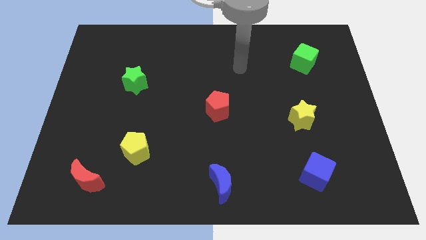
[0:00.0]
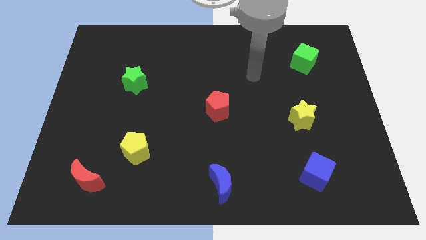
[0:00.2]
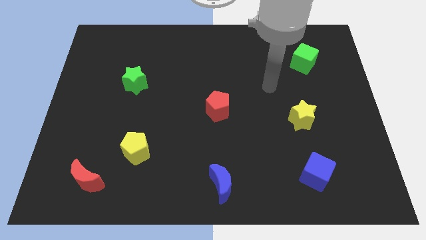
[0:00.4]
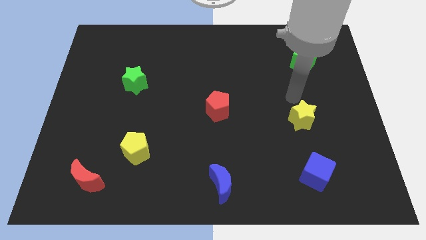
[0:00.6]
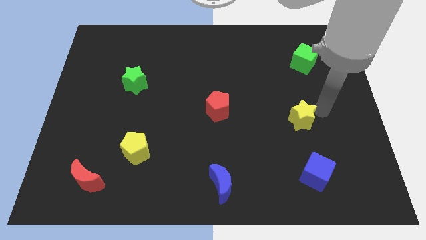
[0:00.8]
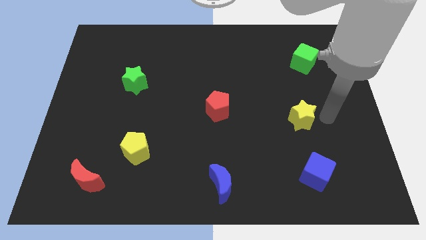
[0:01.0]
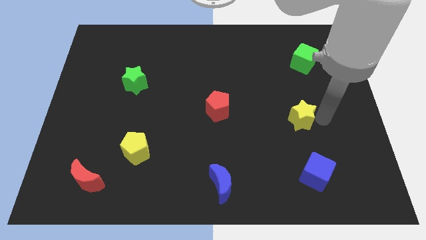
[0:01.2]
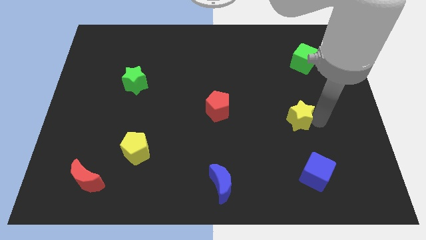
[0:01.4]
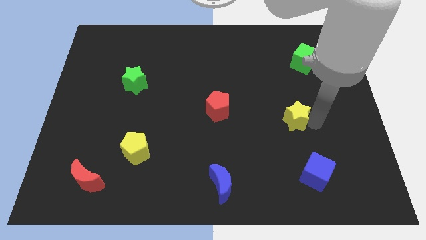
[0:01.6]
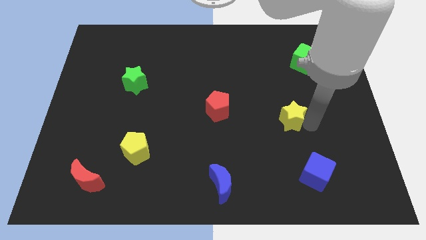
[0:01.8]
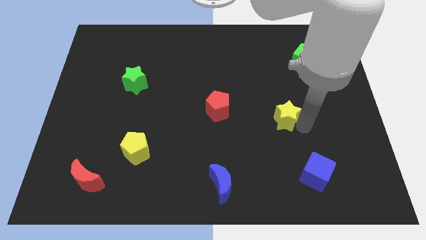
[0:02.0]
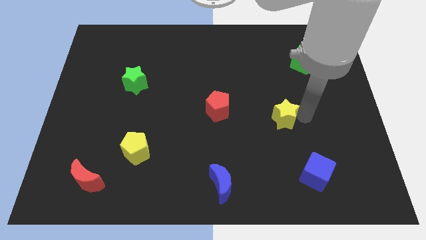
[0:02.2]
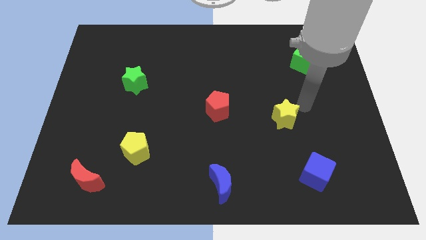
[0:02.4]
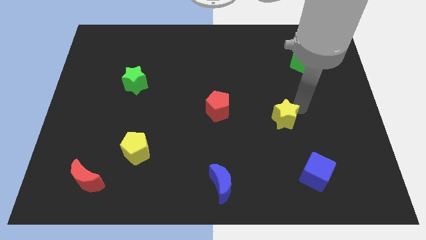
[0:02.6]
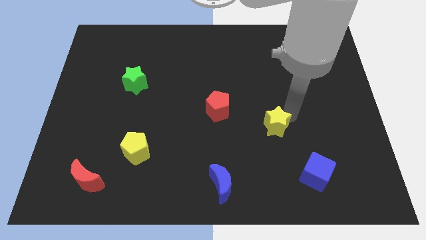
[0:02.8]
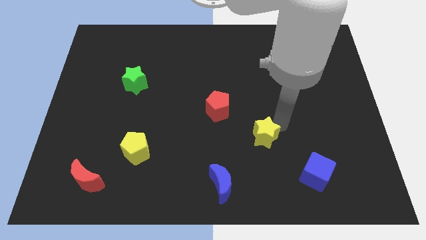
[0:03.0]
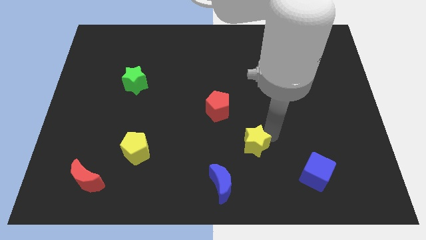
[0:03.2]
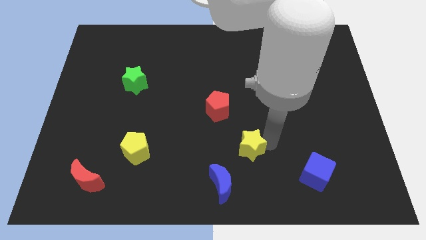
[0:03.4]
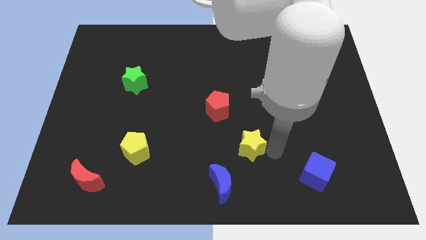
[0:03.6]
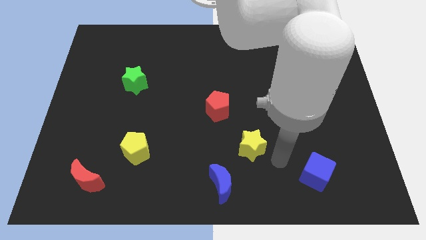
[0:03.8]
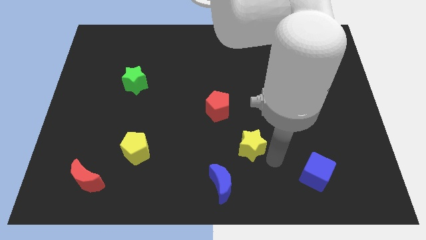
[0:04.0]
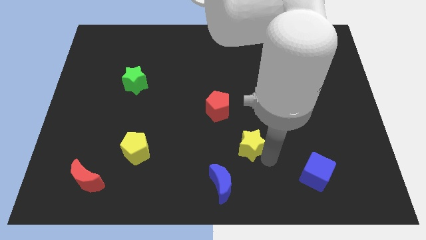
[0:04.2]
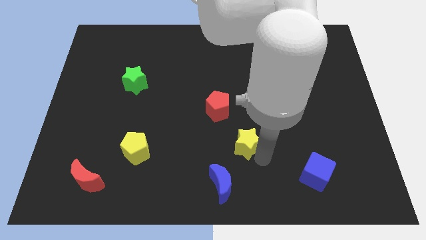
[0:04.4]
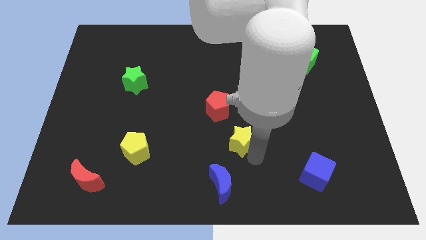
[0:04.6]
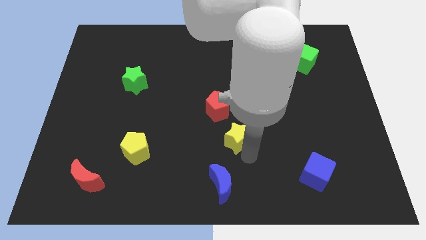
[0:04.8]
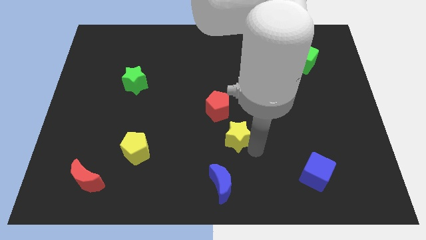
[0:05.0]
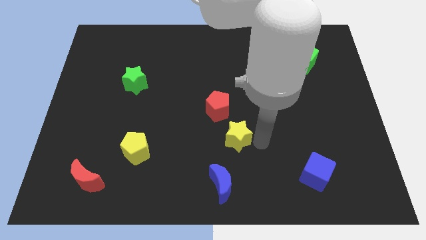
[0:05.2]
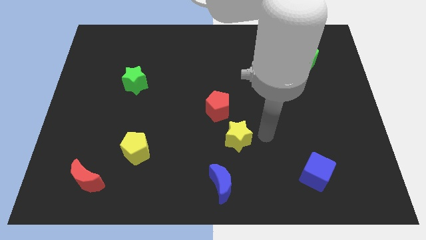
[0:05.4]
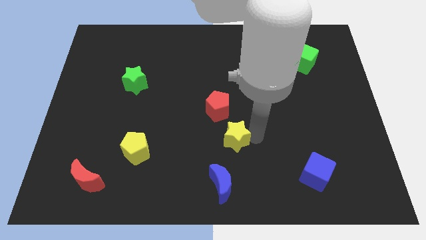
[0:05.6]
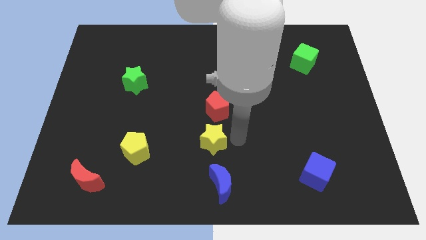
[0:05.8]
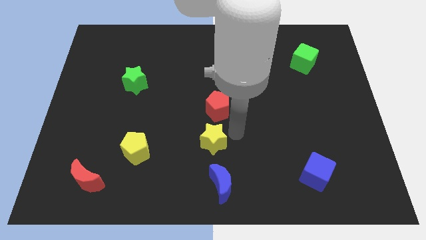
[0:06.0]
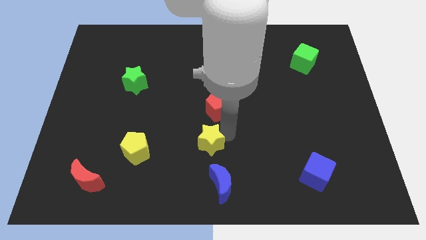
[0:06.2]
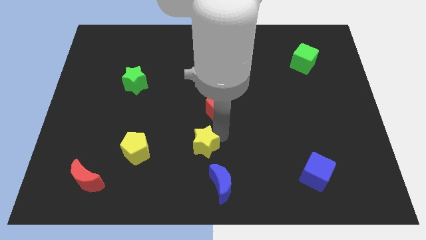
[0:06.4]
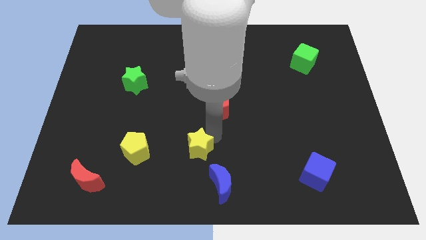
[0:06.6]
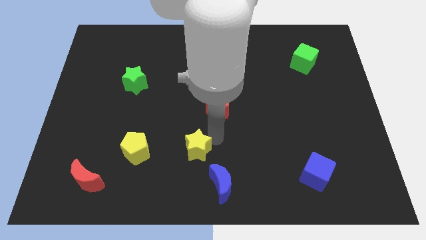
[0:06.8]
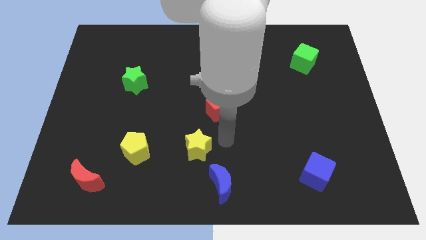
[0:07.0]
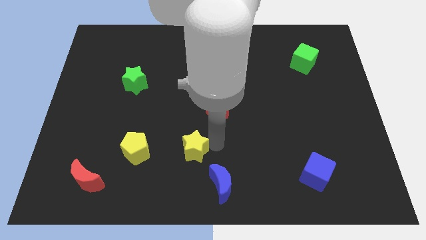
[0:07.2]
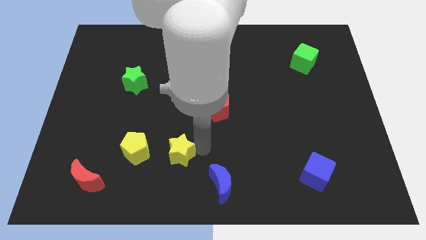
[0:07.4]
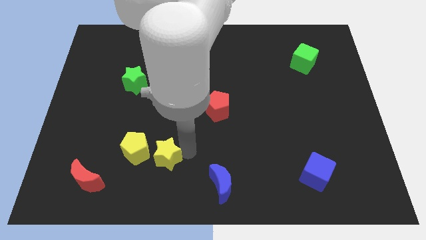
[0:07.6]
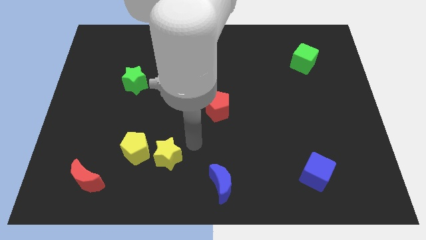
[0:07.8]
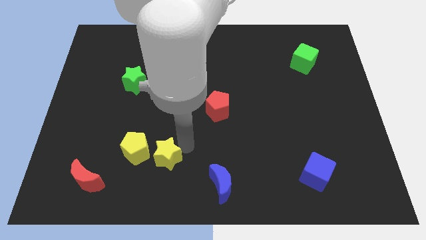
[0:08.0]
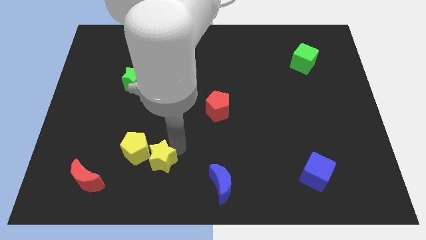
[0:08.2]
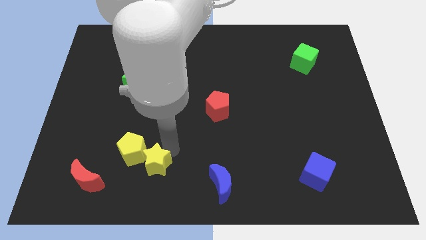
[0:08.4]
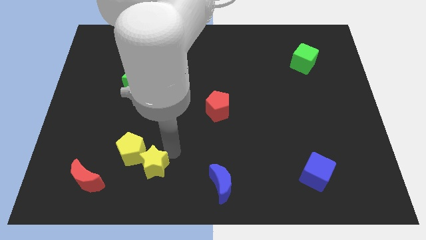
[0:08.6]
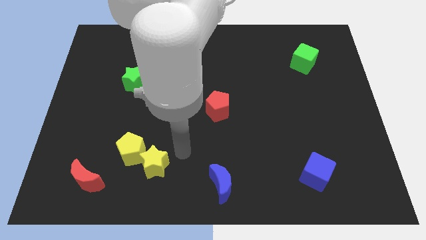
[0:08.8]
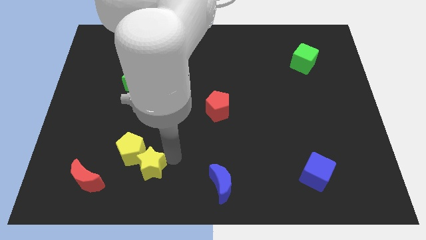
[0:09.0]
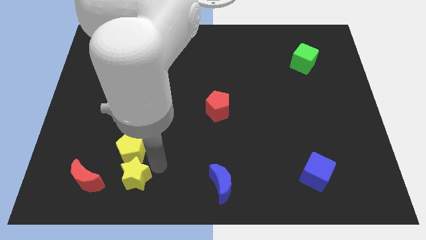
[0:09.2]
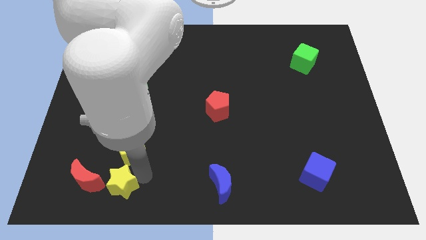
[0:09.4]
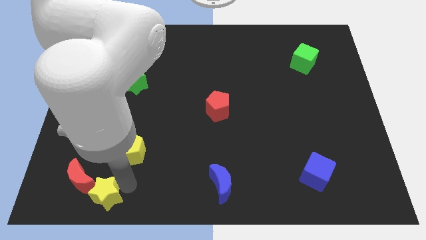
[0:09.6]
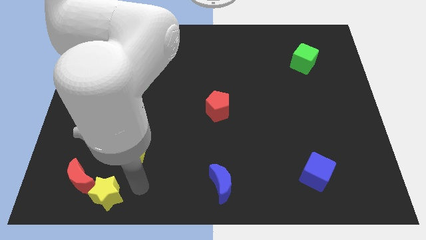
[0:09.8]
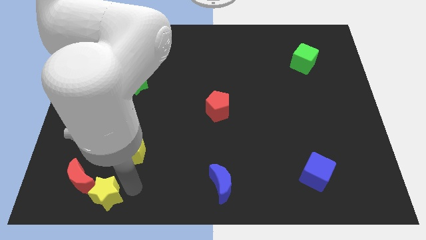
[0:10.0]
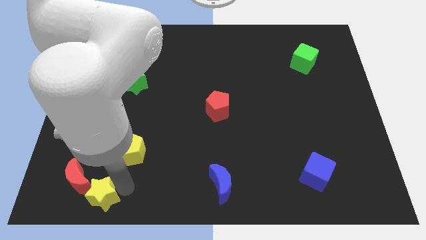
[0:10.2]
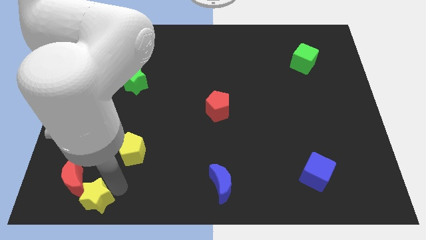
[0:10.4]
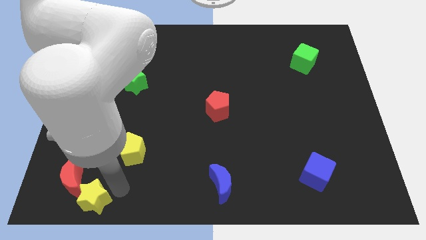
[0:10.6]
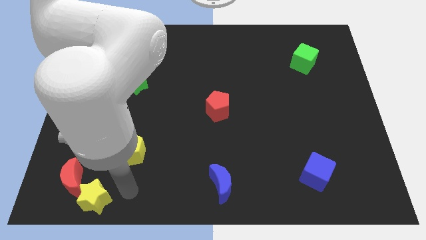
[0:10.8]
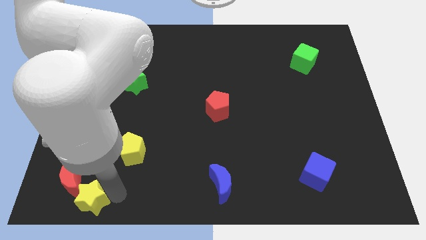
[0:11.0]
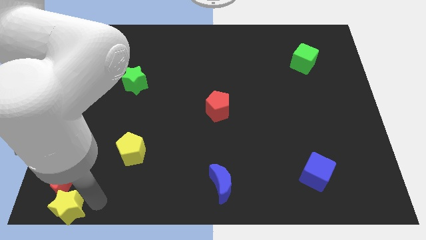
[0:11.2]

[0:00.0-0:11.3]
move the yellow star to the lower left corner
